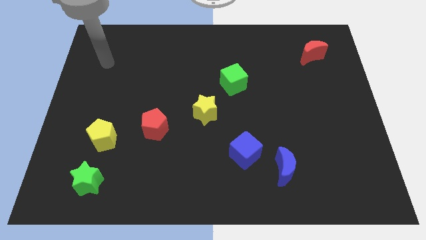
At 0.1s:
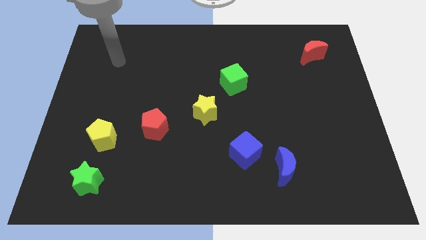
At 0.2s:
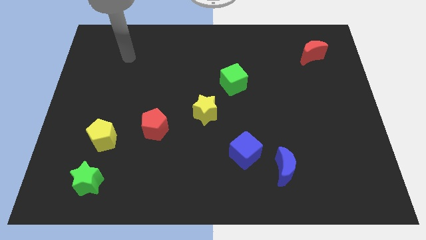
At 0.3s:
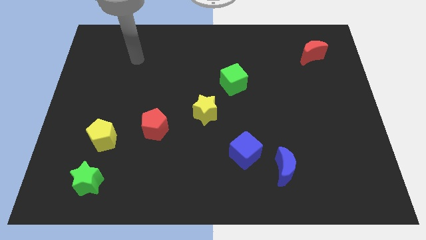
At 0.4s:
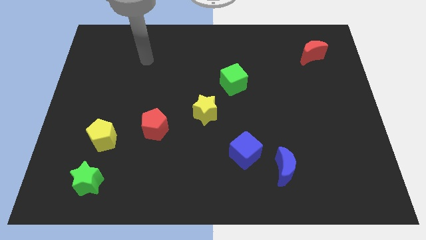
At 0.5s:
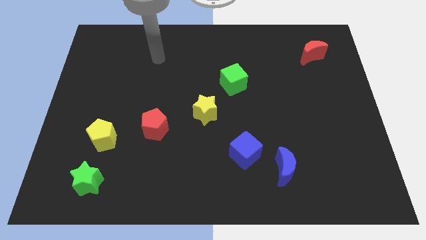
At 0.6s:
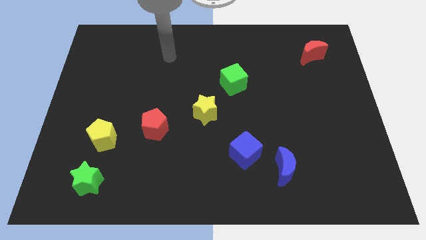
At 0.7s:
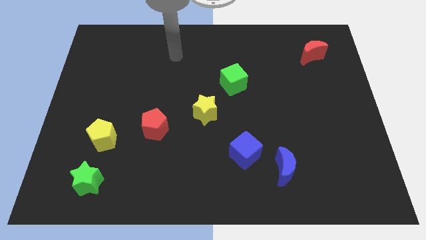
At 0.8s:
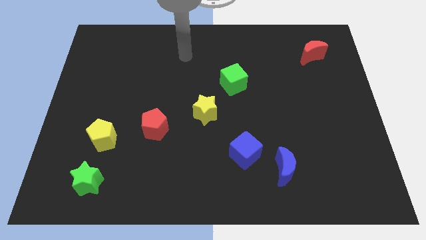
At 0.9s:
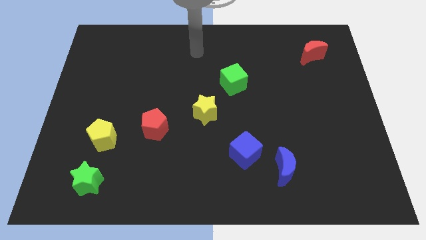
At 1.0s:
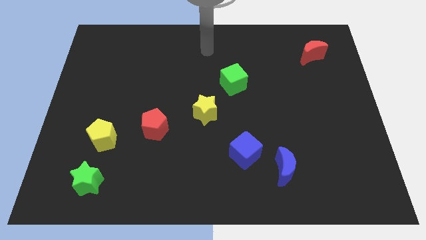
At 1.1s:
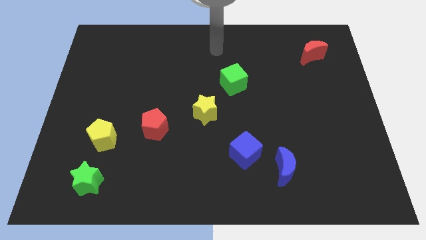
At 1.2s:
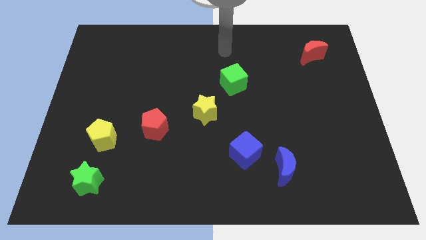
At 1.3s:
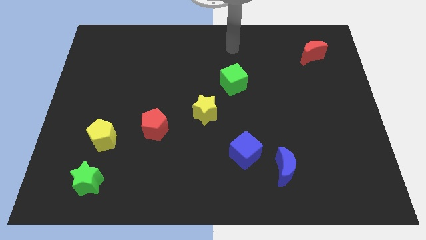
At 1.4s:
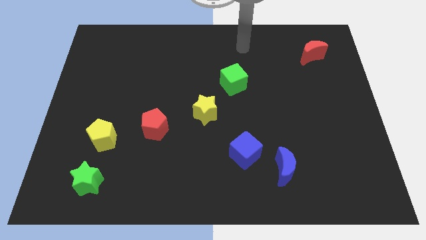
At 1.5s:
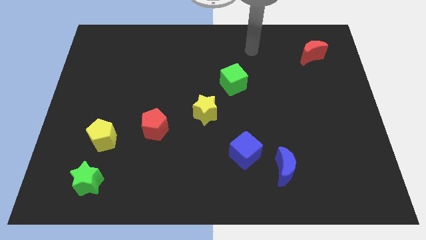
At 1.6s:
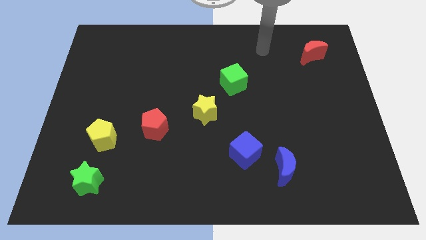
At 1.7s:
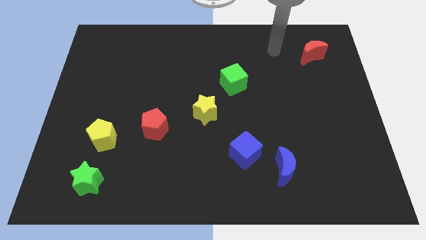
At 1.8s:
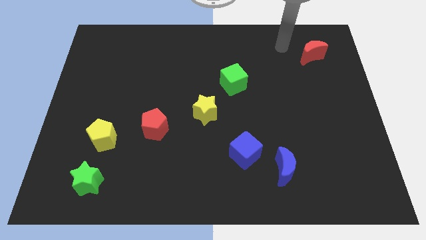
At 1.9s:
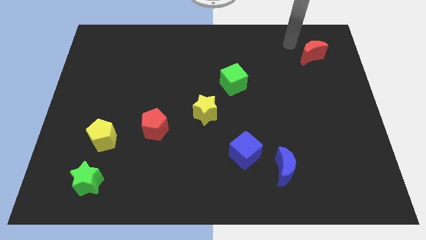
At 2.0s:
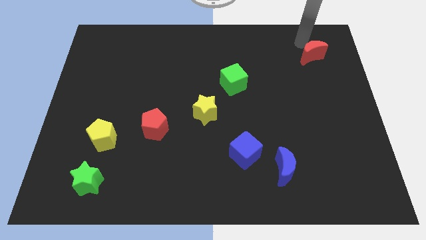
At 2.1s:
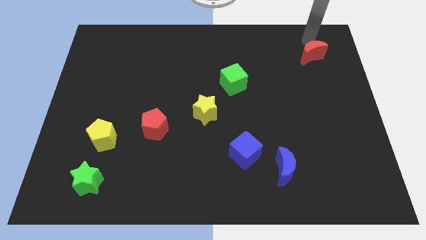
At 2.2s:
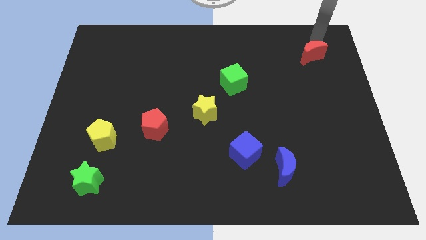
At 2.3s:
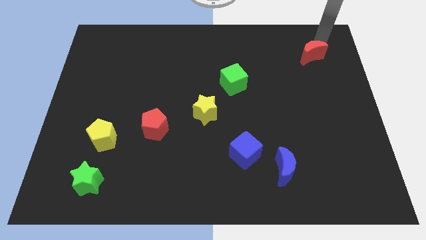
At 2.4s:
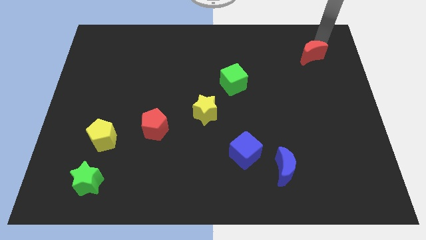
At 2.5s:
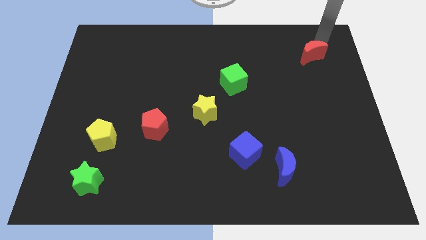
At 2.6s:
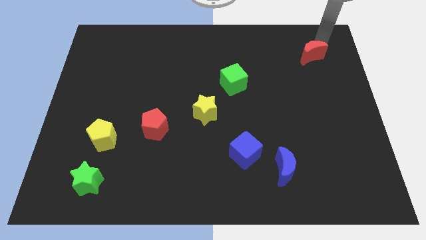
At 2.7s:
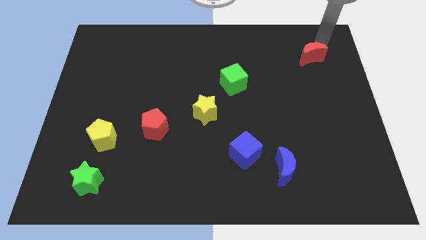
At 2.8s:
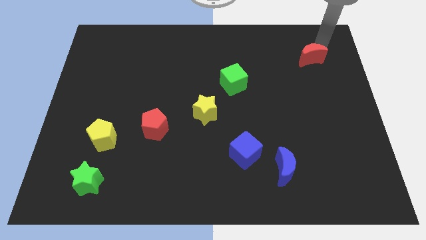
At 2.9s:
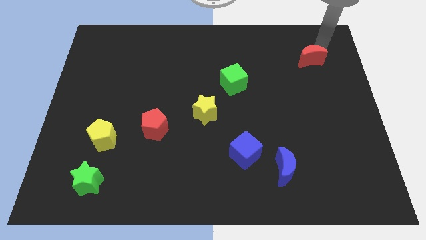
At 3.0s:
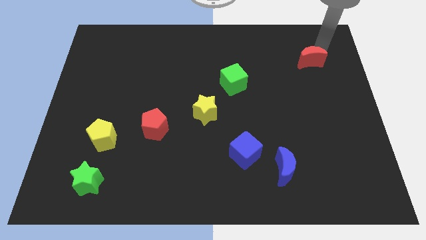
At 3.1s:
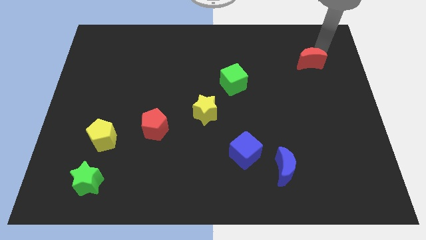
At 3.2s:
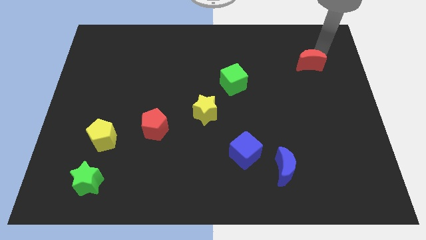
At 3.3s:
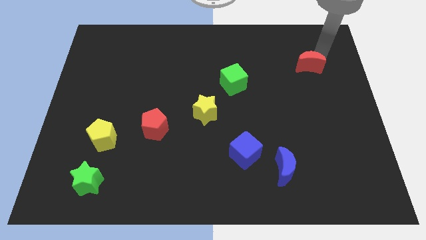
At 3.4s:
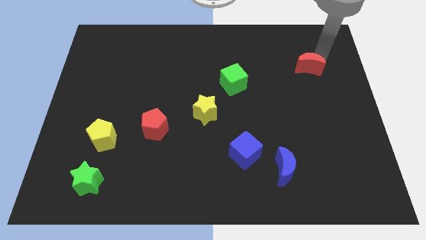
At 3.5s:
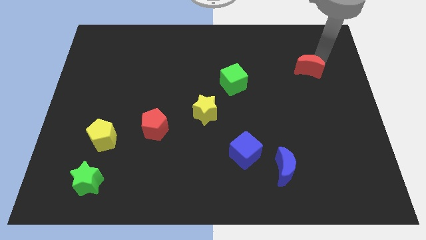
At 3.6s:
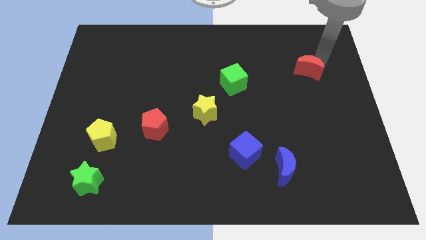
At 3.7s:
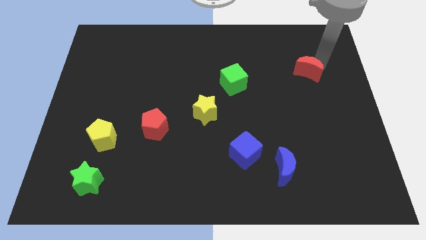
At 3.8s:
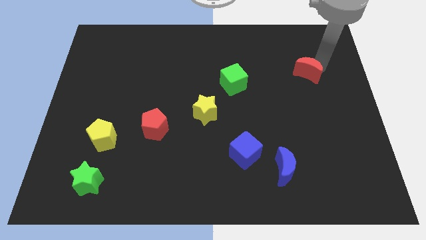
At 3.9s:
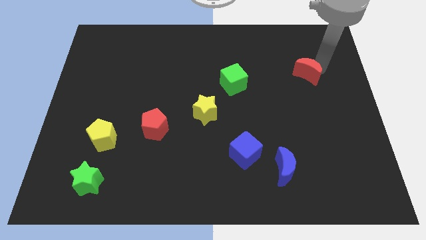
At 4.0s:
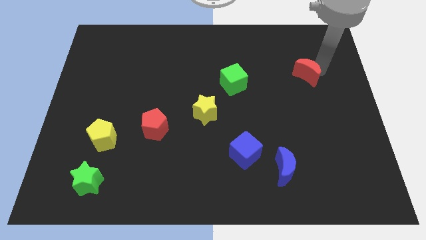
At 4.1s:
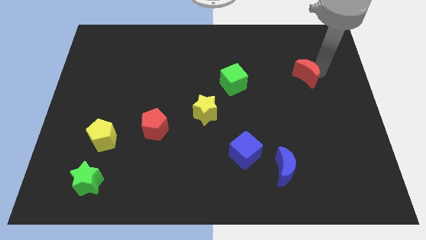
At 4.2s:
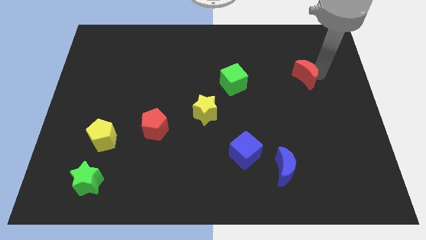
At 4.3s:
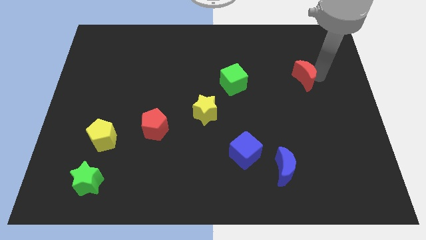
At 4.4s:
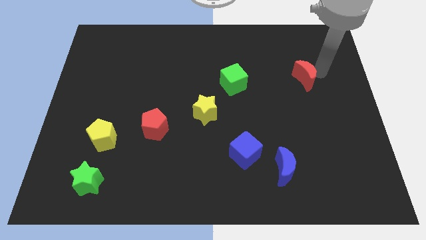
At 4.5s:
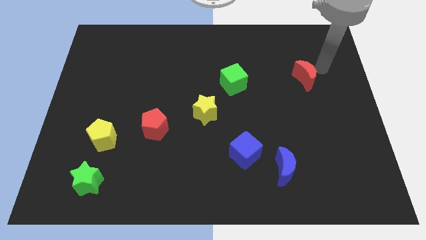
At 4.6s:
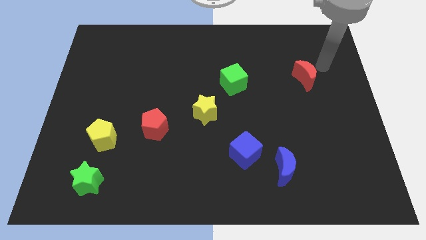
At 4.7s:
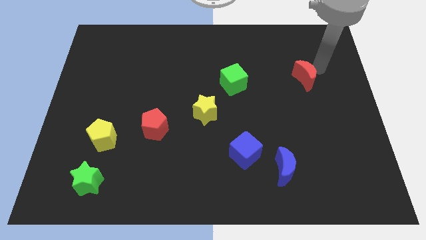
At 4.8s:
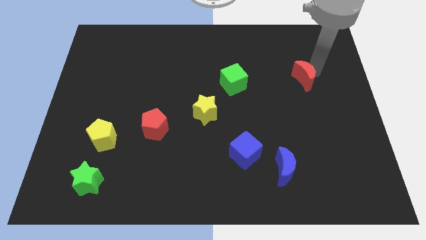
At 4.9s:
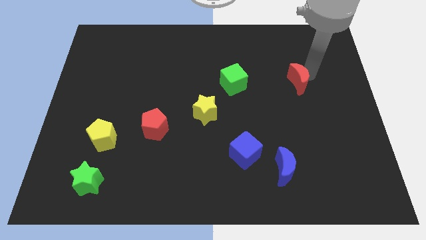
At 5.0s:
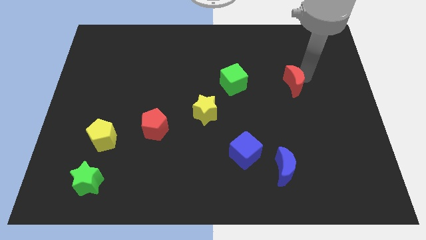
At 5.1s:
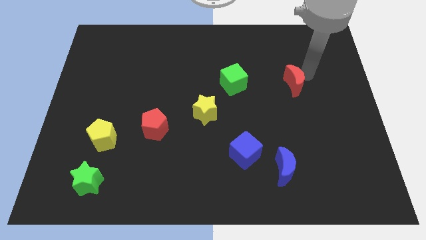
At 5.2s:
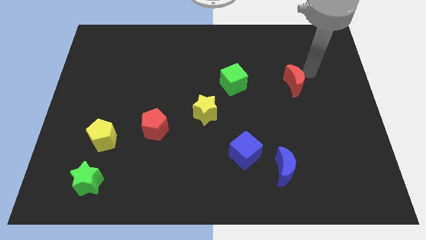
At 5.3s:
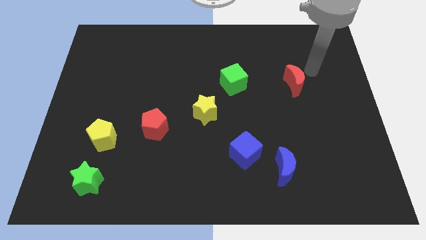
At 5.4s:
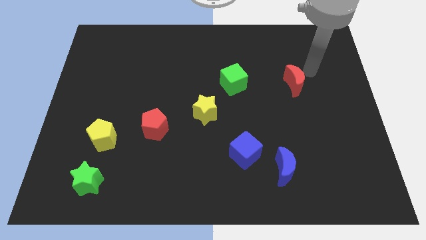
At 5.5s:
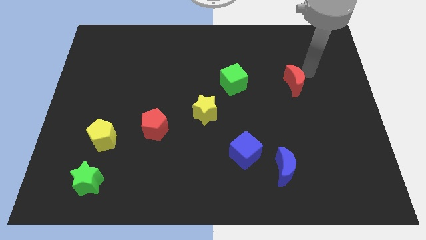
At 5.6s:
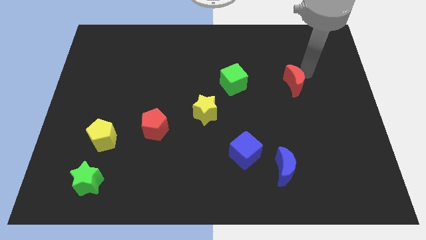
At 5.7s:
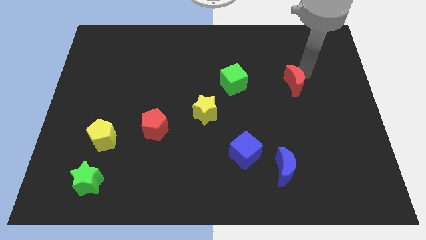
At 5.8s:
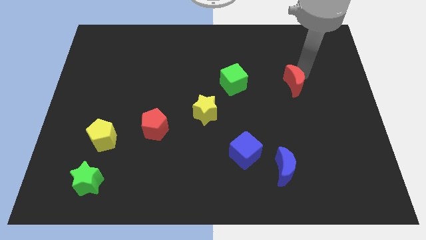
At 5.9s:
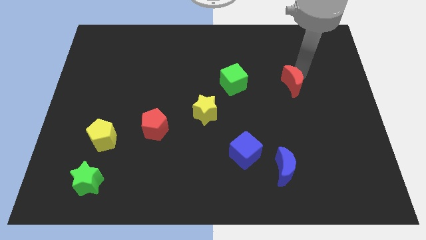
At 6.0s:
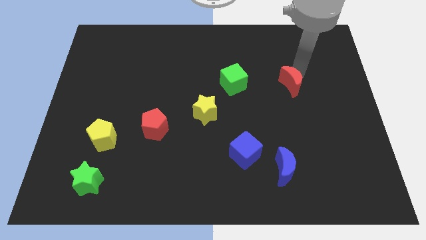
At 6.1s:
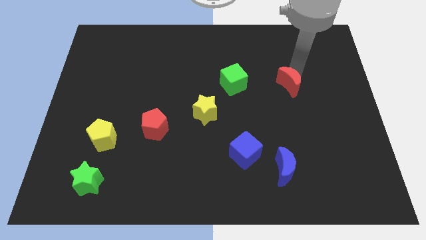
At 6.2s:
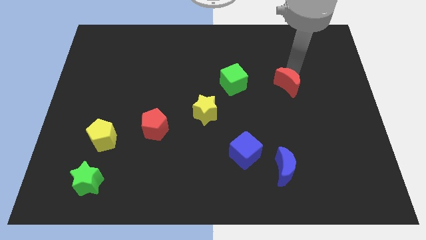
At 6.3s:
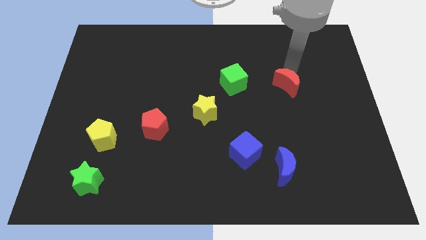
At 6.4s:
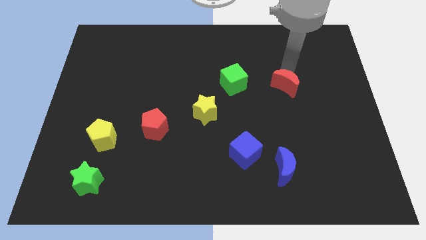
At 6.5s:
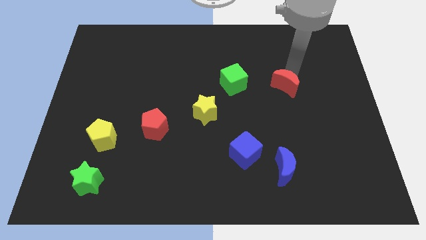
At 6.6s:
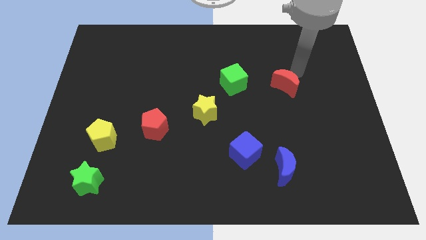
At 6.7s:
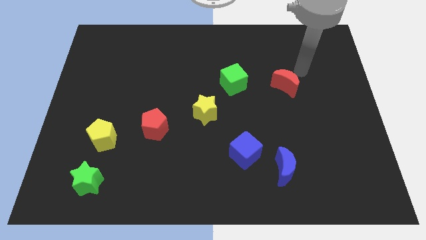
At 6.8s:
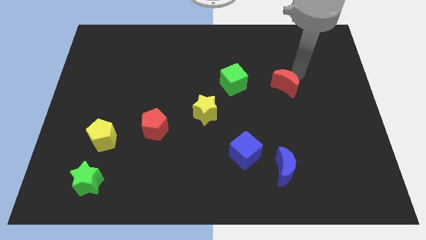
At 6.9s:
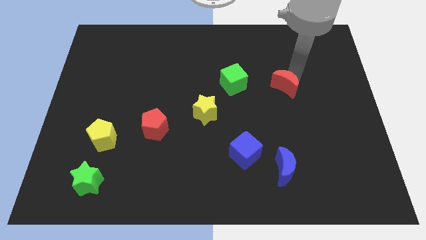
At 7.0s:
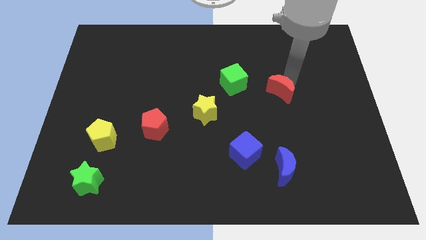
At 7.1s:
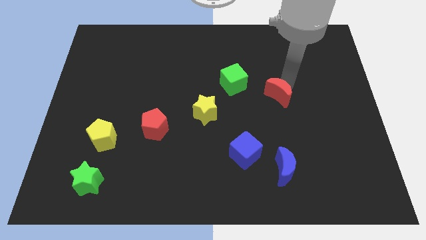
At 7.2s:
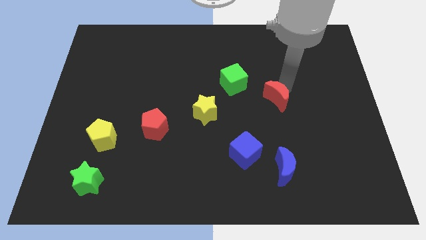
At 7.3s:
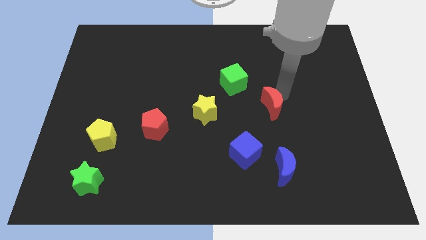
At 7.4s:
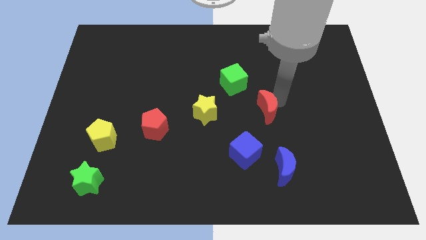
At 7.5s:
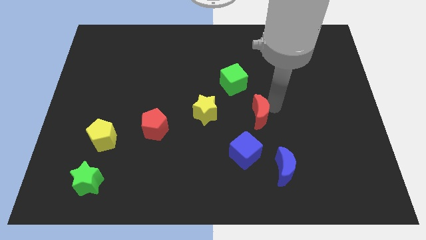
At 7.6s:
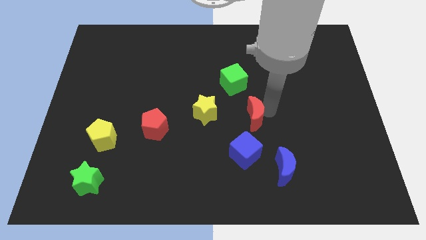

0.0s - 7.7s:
slide the red moon below the green cube
